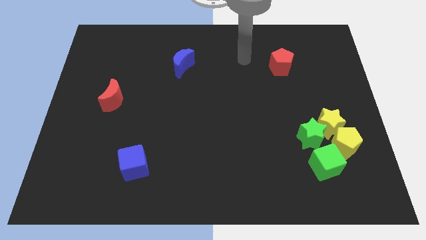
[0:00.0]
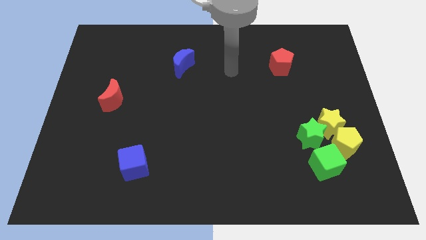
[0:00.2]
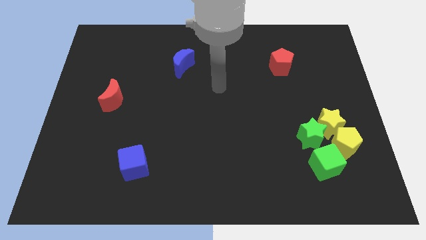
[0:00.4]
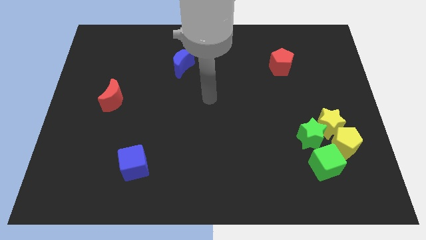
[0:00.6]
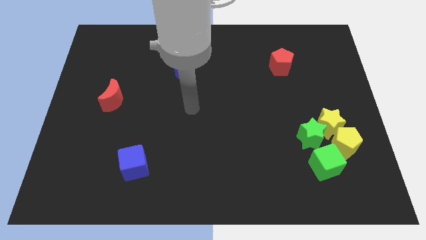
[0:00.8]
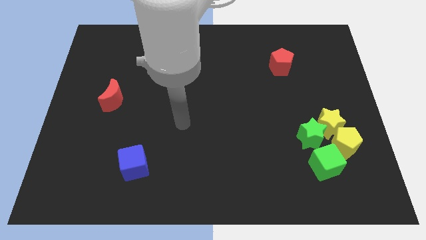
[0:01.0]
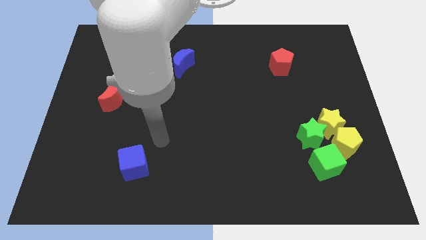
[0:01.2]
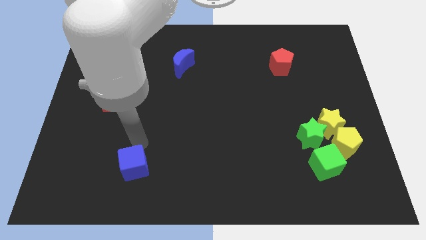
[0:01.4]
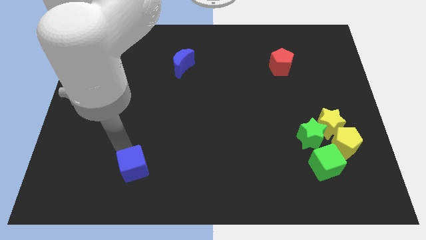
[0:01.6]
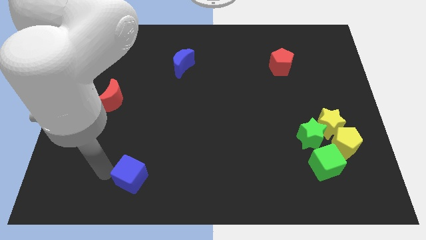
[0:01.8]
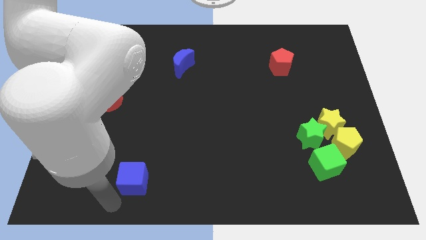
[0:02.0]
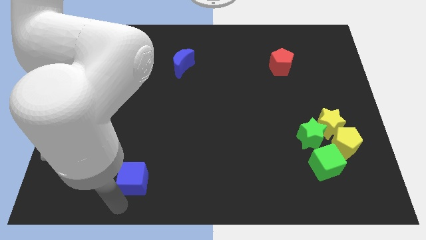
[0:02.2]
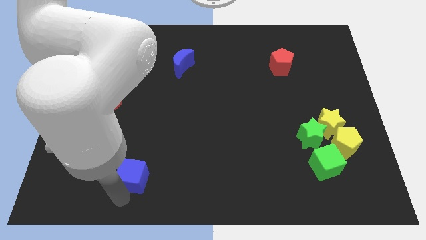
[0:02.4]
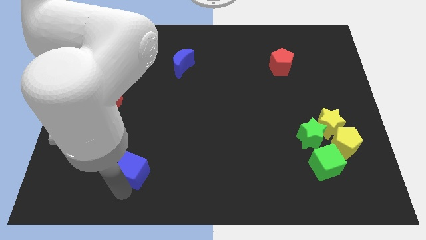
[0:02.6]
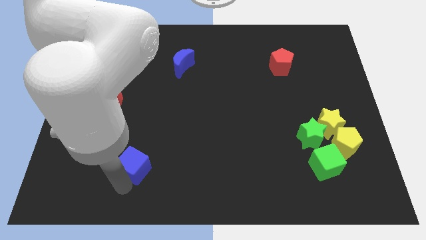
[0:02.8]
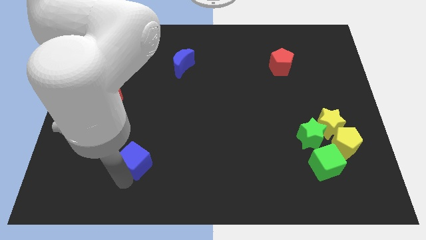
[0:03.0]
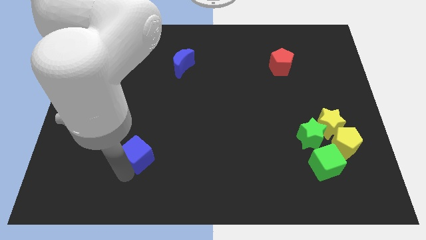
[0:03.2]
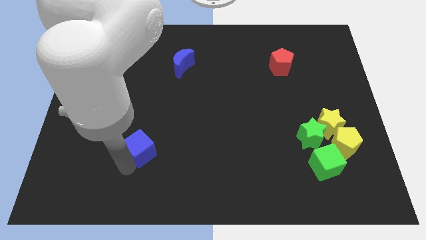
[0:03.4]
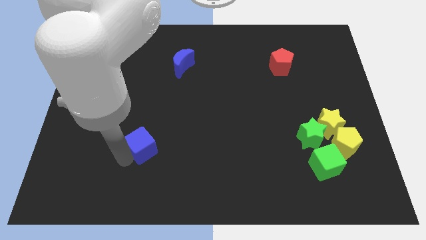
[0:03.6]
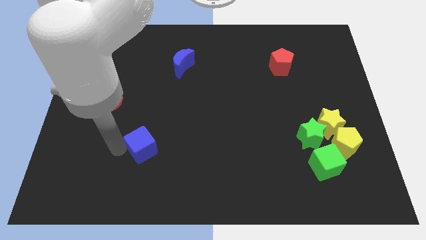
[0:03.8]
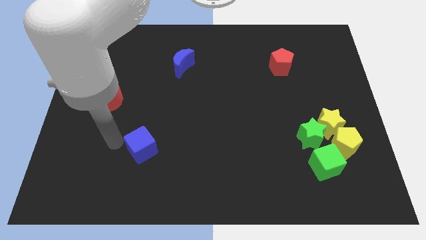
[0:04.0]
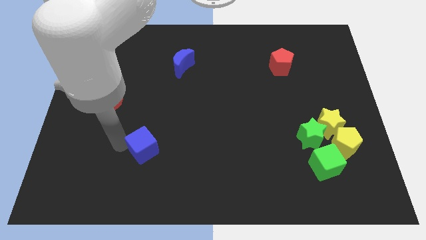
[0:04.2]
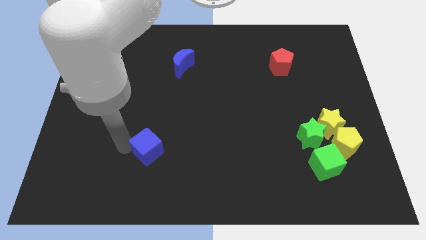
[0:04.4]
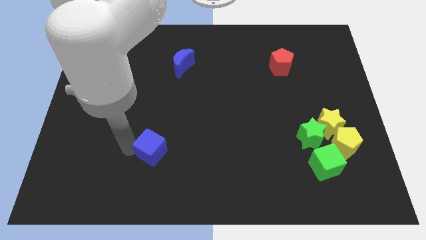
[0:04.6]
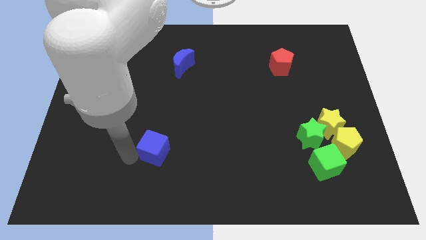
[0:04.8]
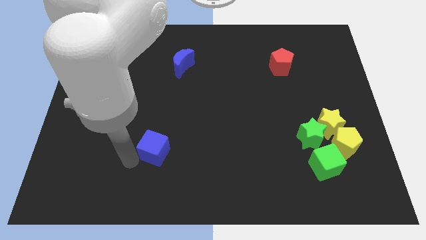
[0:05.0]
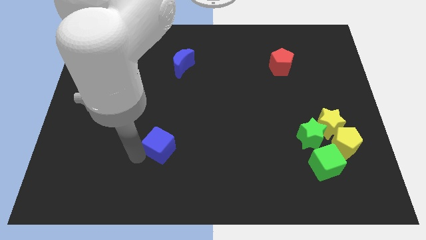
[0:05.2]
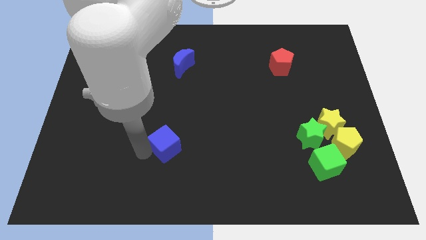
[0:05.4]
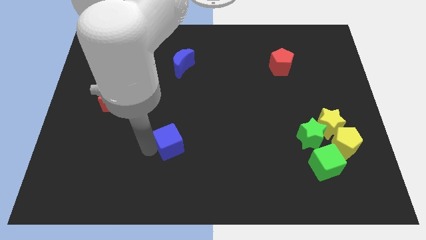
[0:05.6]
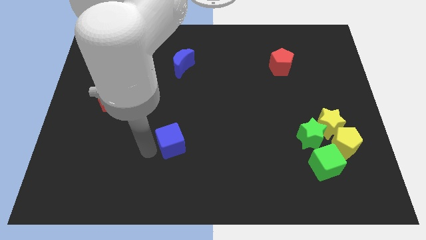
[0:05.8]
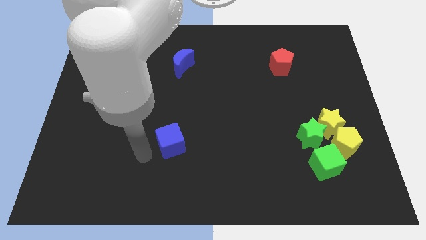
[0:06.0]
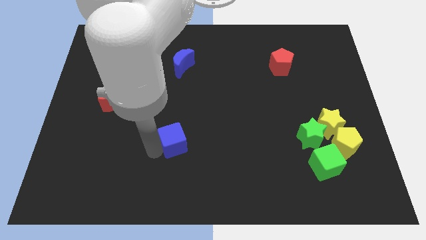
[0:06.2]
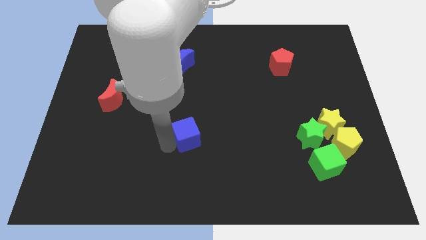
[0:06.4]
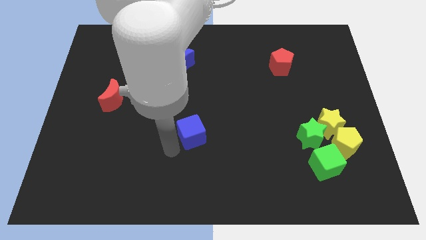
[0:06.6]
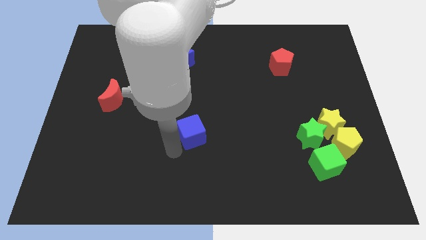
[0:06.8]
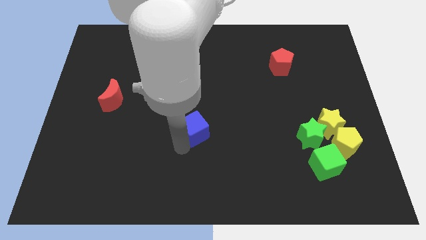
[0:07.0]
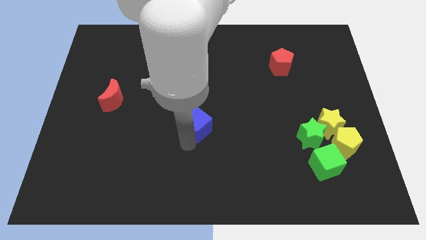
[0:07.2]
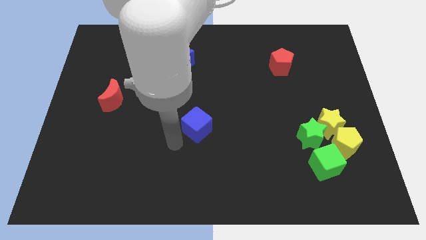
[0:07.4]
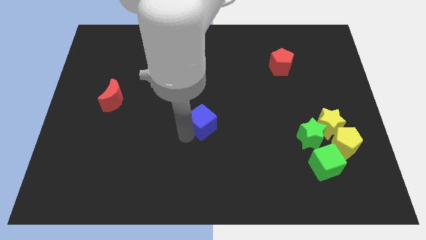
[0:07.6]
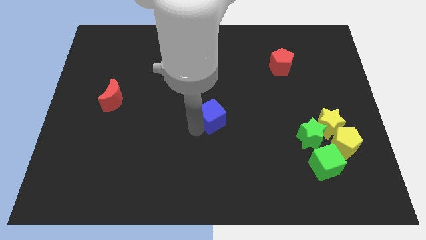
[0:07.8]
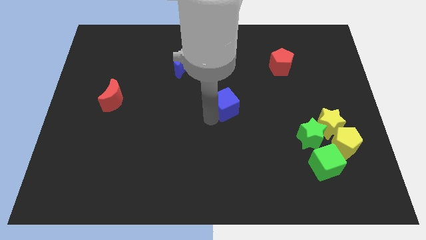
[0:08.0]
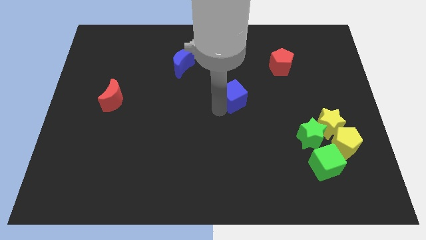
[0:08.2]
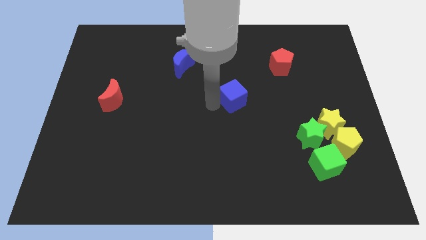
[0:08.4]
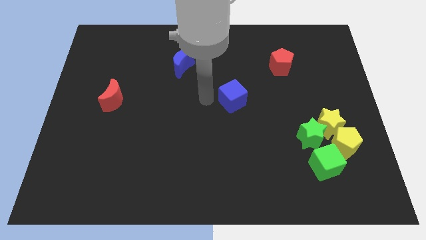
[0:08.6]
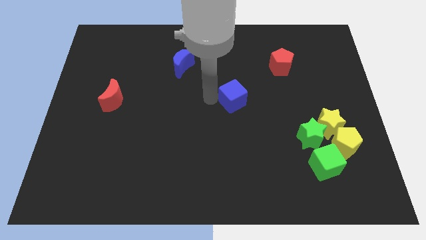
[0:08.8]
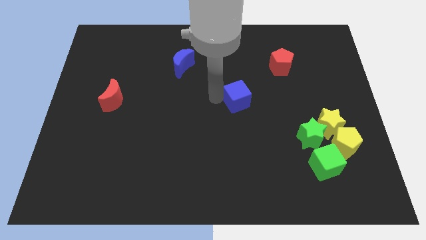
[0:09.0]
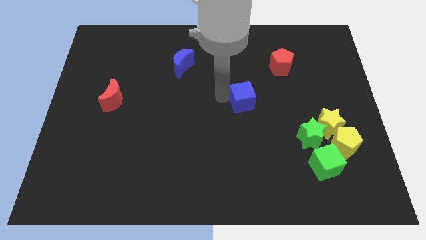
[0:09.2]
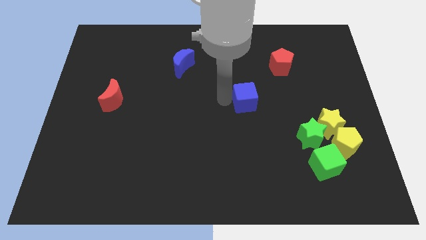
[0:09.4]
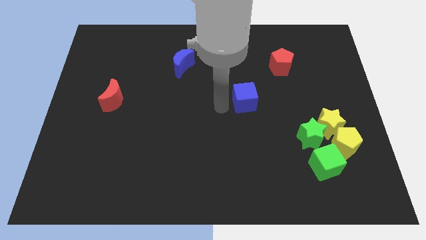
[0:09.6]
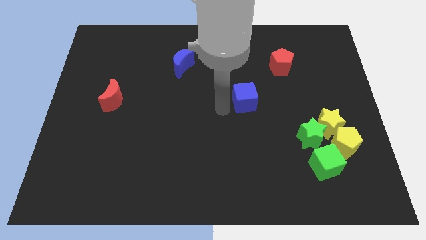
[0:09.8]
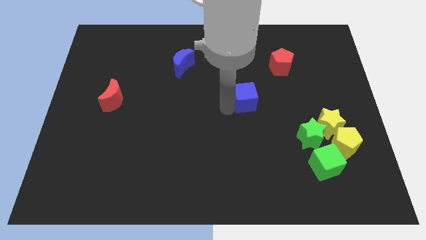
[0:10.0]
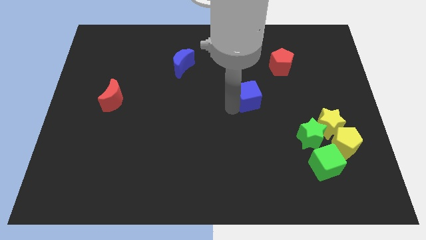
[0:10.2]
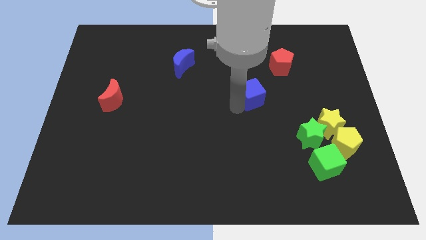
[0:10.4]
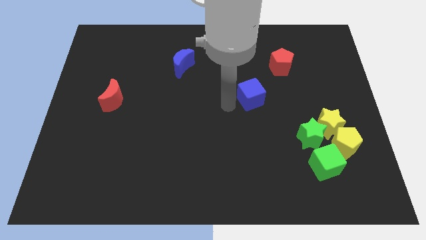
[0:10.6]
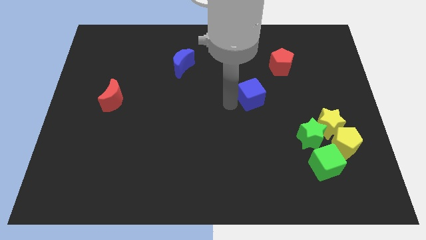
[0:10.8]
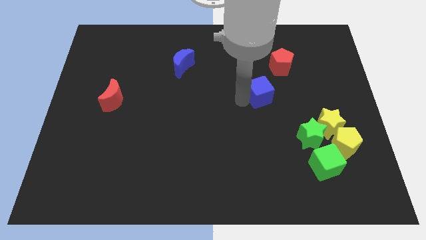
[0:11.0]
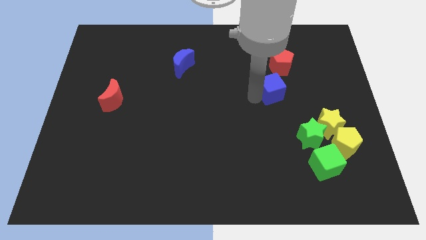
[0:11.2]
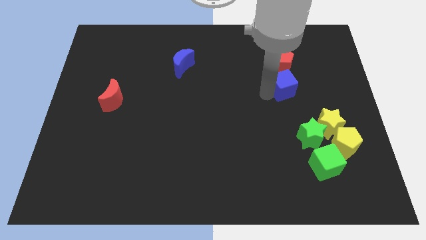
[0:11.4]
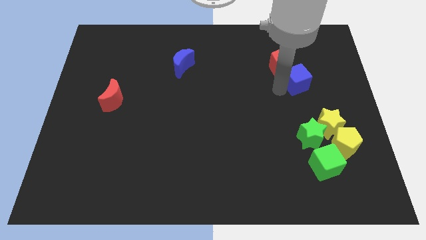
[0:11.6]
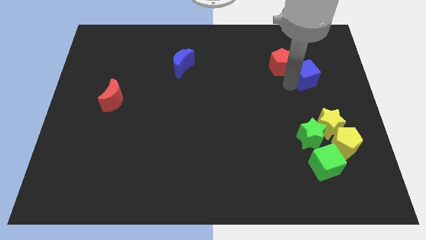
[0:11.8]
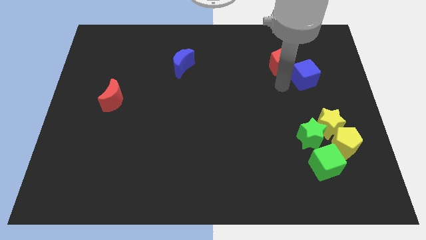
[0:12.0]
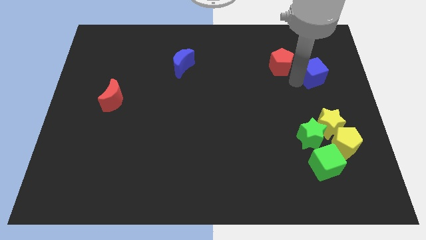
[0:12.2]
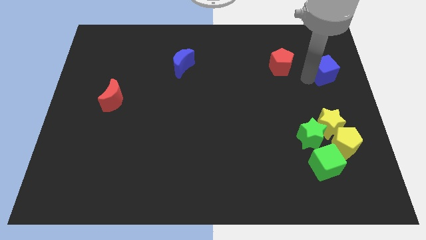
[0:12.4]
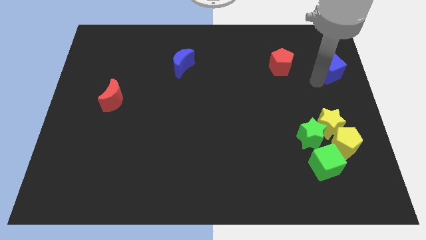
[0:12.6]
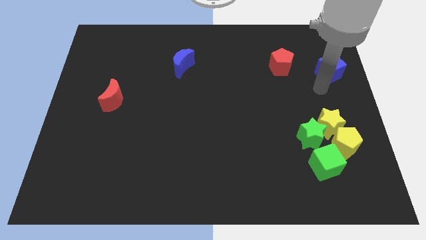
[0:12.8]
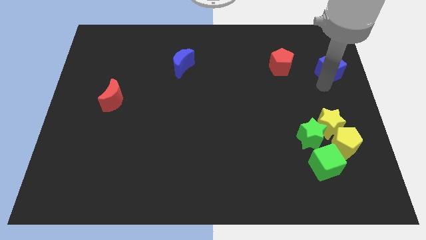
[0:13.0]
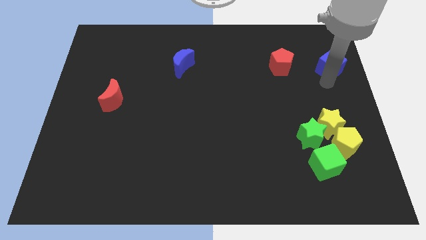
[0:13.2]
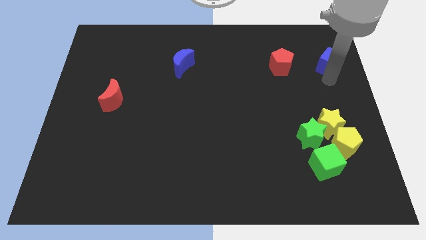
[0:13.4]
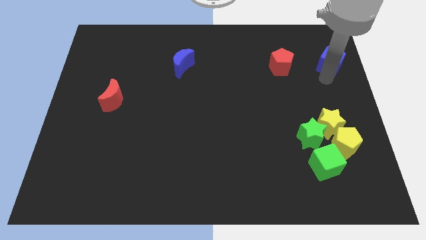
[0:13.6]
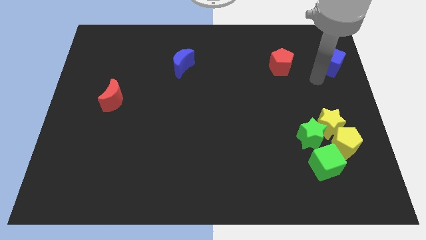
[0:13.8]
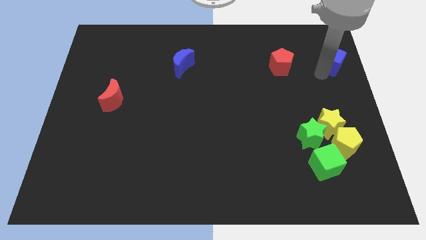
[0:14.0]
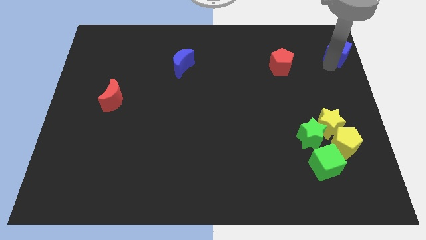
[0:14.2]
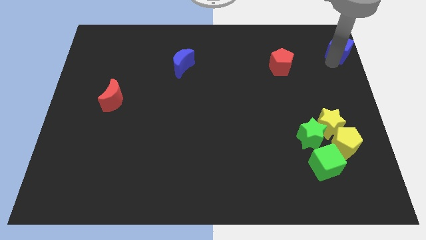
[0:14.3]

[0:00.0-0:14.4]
put the blue cube to the top right
